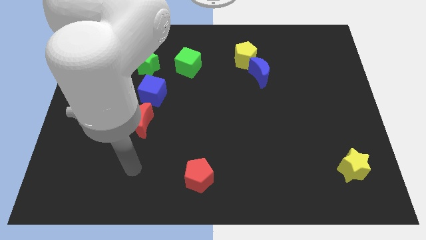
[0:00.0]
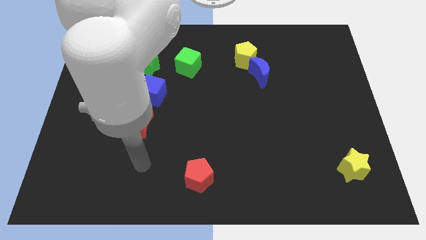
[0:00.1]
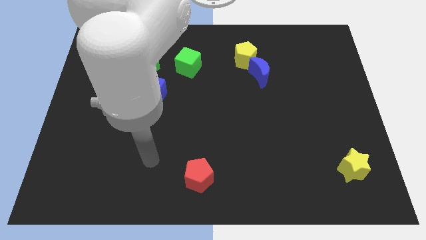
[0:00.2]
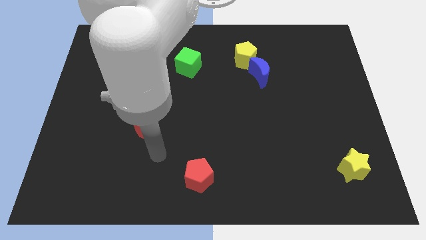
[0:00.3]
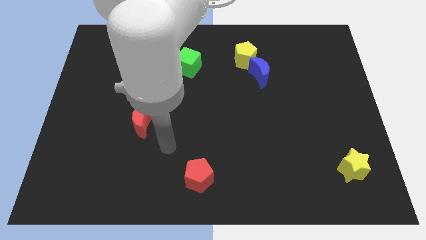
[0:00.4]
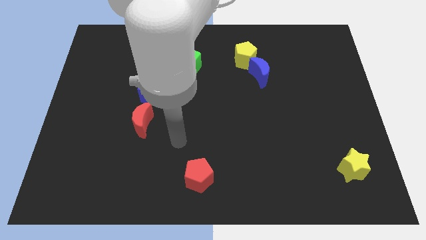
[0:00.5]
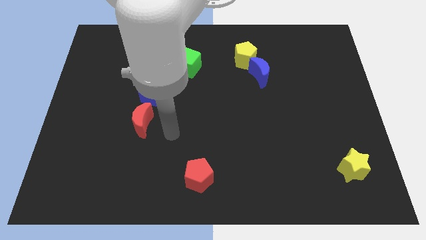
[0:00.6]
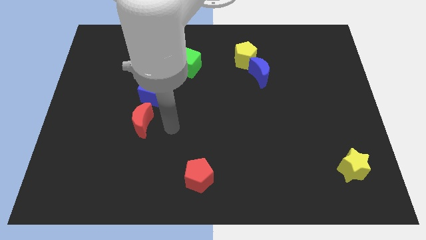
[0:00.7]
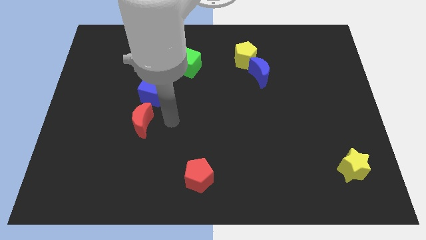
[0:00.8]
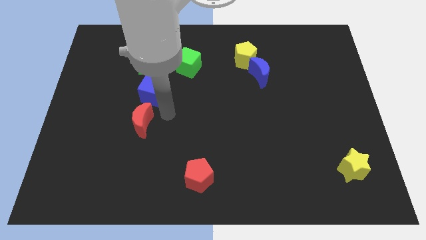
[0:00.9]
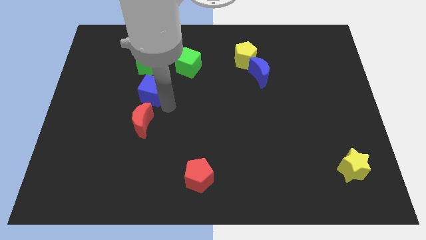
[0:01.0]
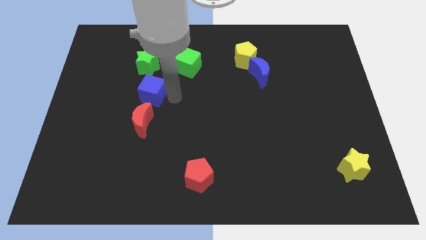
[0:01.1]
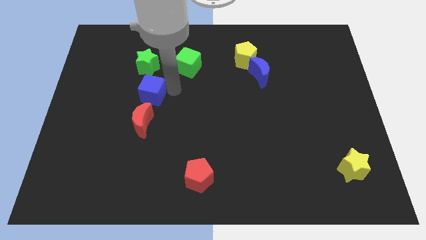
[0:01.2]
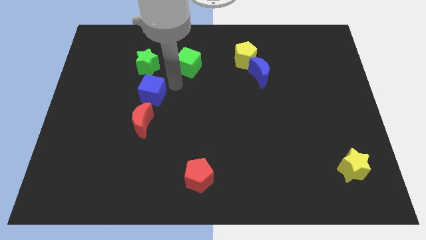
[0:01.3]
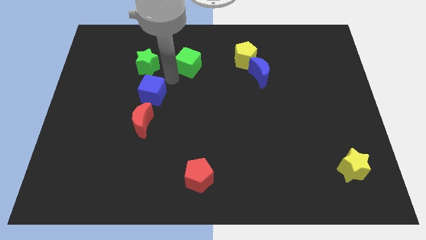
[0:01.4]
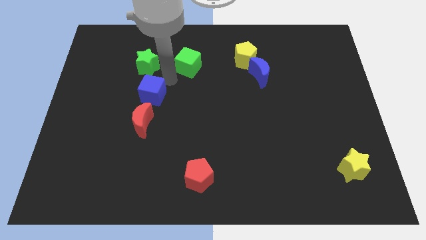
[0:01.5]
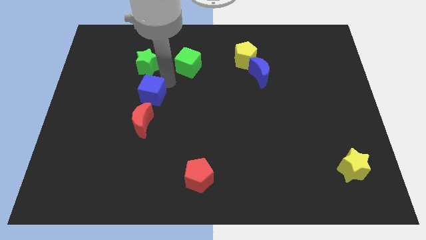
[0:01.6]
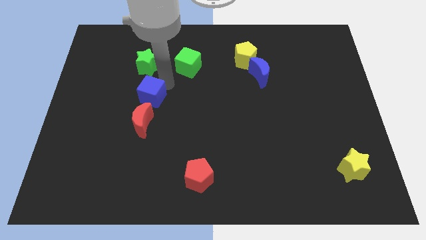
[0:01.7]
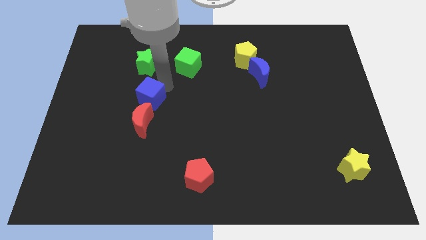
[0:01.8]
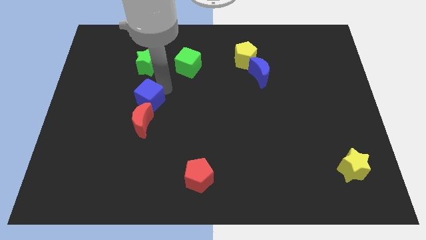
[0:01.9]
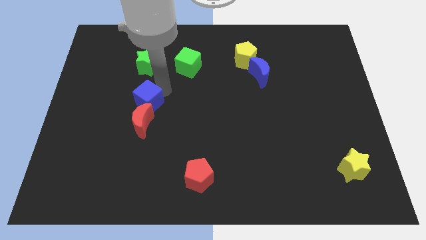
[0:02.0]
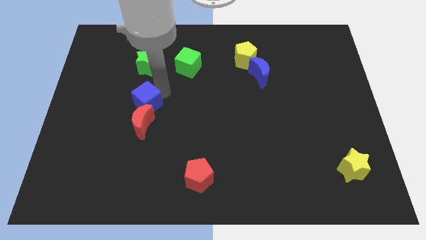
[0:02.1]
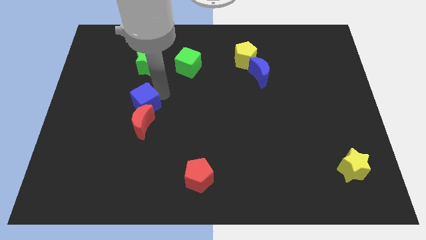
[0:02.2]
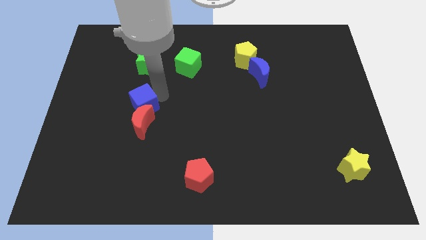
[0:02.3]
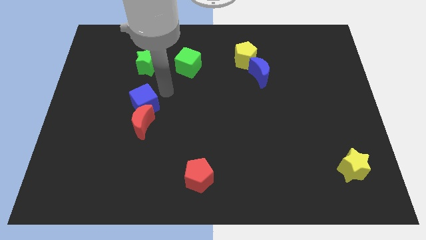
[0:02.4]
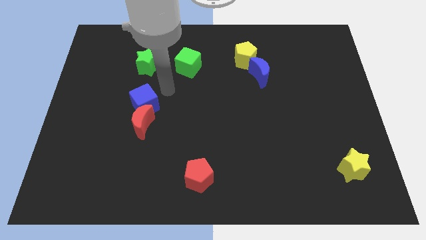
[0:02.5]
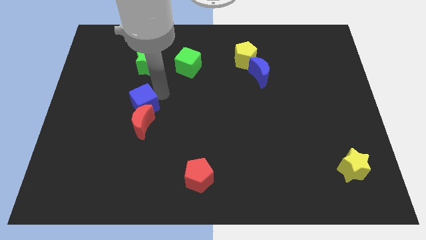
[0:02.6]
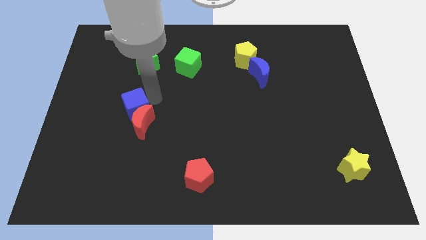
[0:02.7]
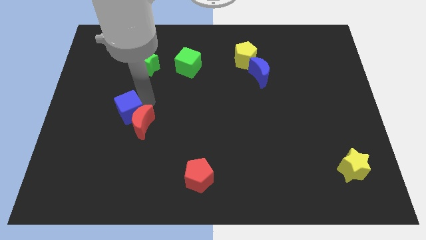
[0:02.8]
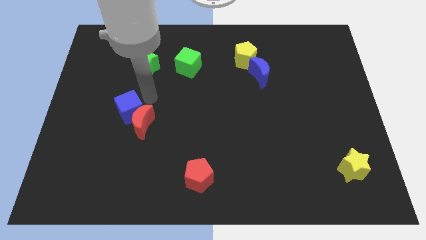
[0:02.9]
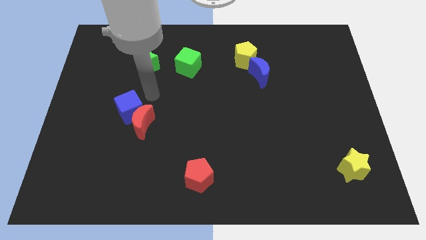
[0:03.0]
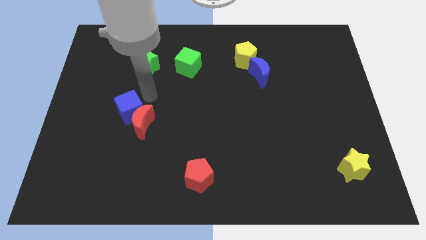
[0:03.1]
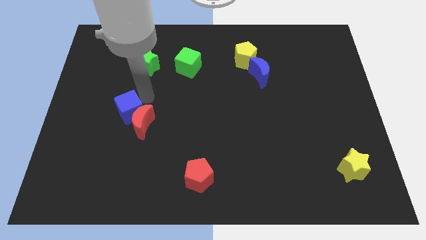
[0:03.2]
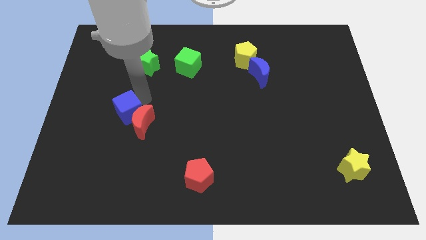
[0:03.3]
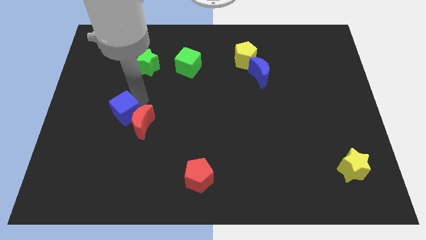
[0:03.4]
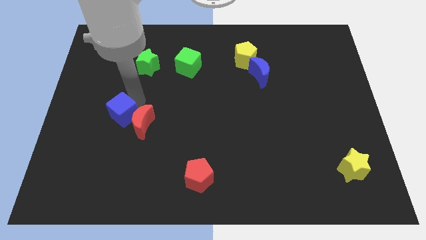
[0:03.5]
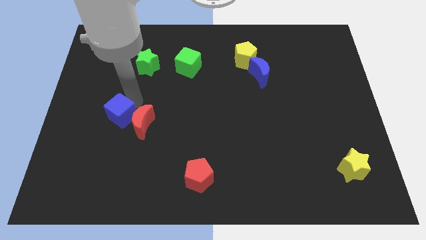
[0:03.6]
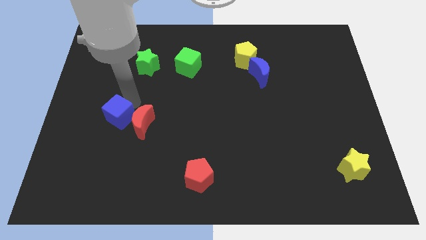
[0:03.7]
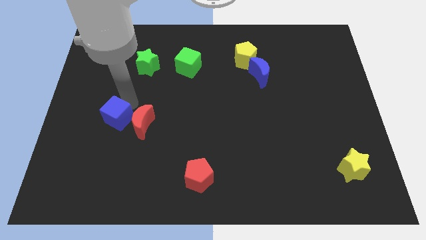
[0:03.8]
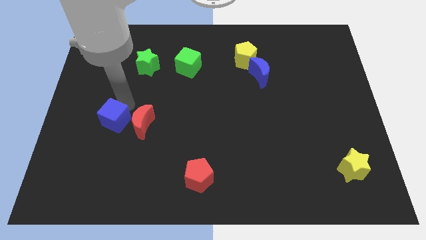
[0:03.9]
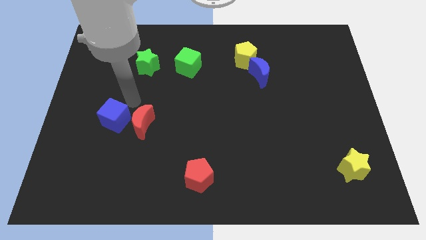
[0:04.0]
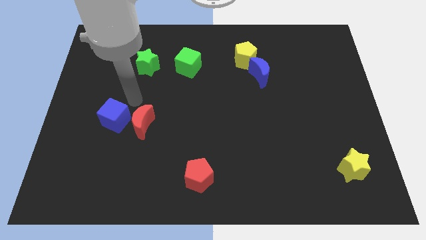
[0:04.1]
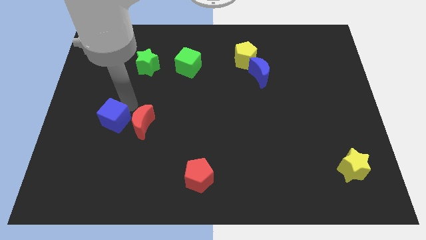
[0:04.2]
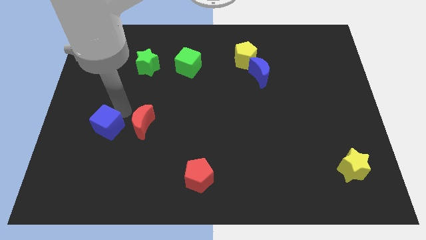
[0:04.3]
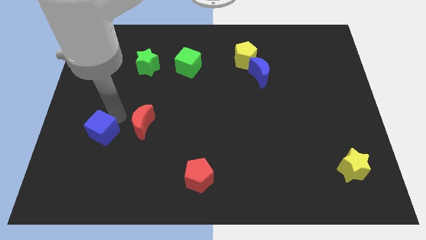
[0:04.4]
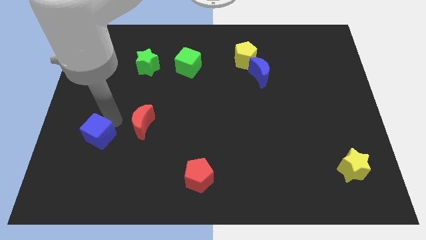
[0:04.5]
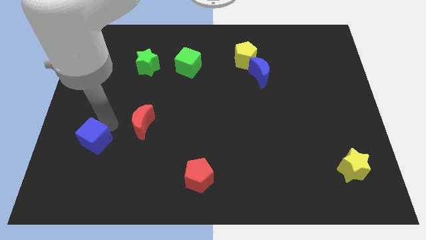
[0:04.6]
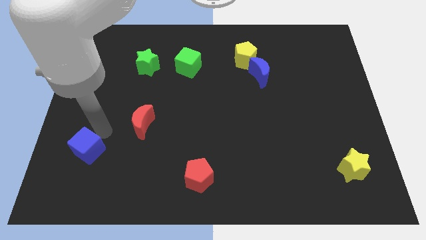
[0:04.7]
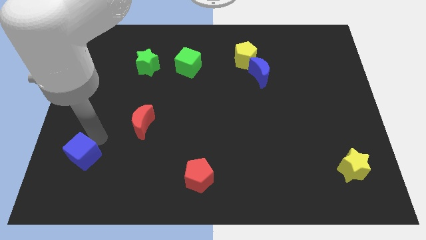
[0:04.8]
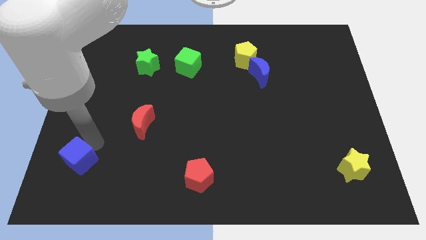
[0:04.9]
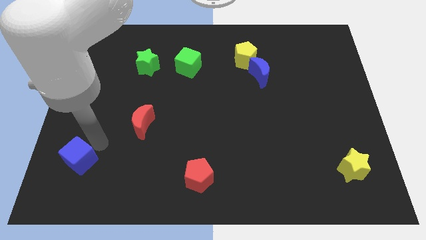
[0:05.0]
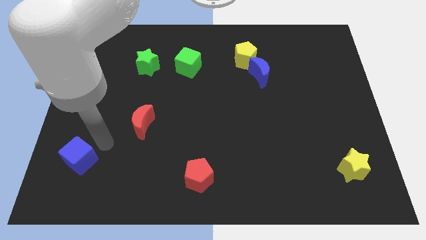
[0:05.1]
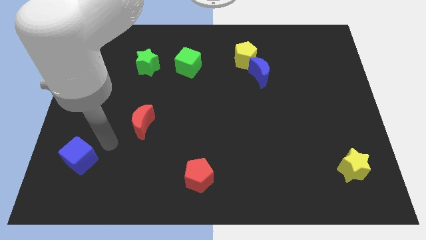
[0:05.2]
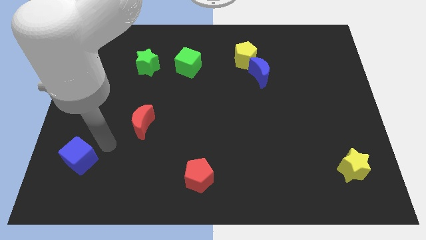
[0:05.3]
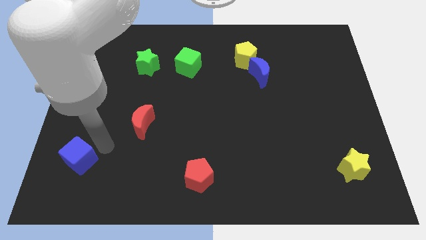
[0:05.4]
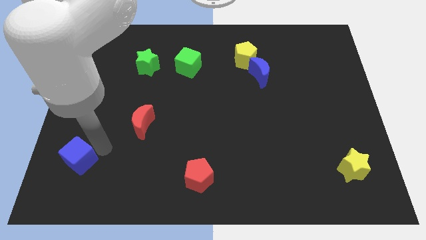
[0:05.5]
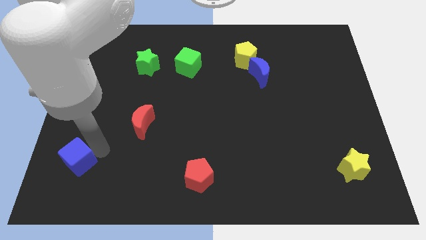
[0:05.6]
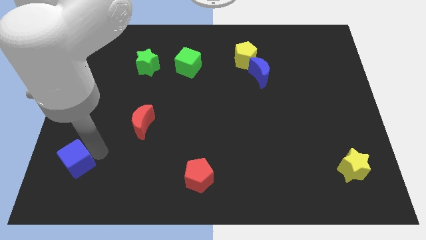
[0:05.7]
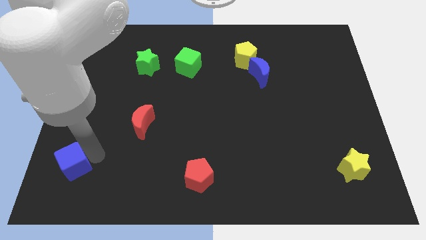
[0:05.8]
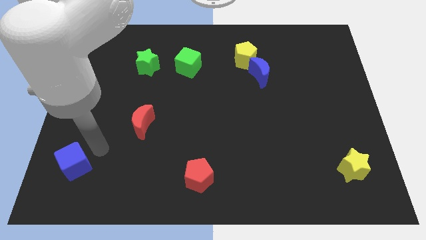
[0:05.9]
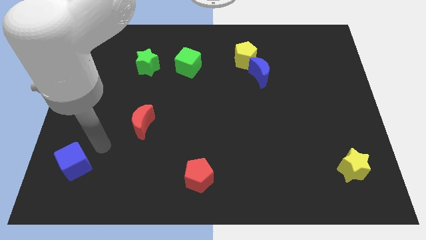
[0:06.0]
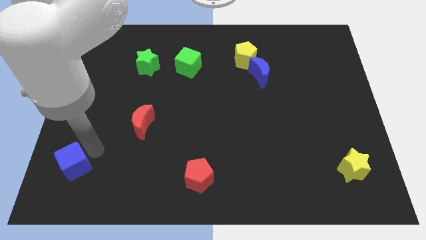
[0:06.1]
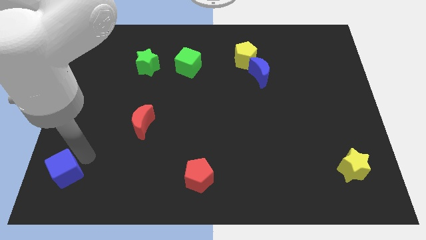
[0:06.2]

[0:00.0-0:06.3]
push the blue cube to the bottom left of the board
